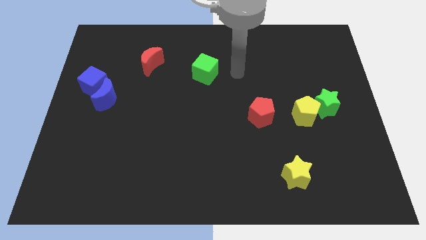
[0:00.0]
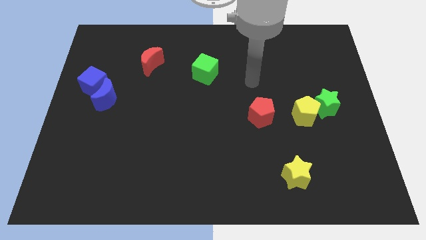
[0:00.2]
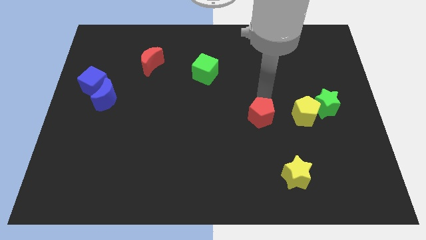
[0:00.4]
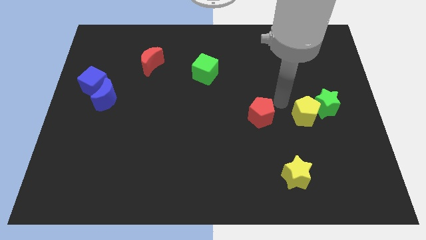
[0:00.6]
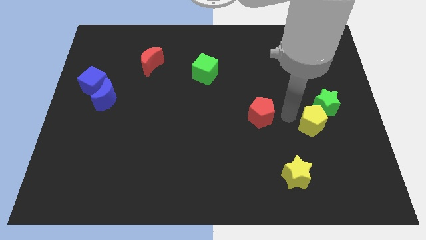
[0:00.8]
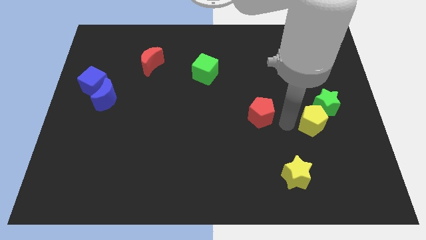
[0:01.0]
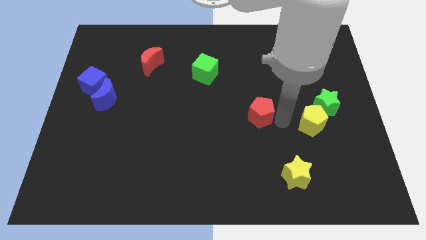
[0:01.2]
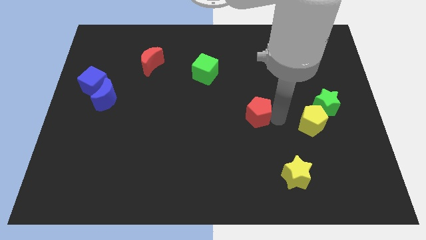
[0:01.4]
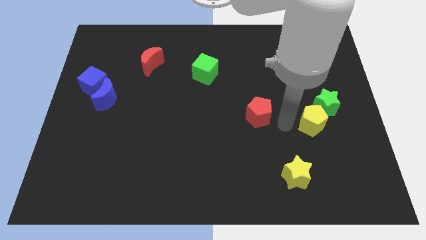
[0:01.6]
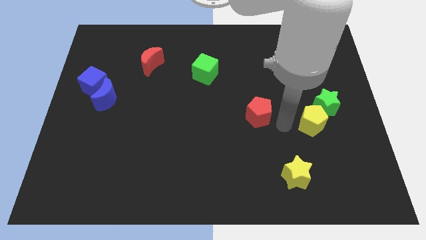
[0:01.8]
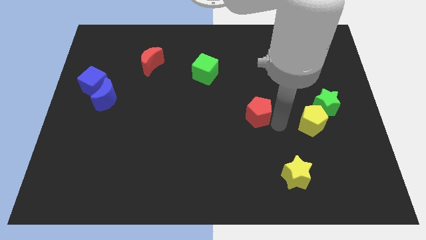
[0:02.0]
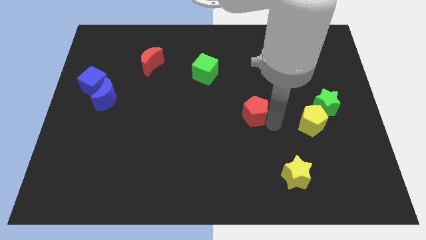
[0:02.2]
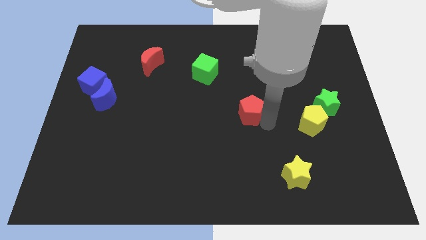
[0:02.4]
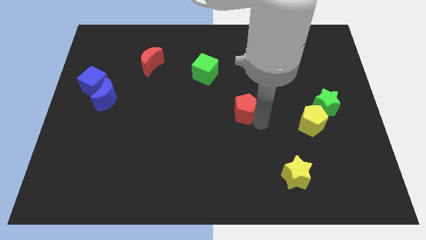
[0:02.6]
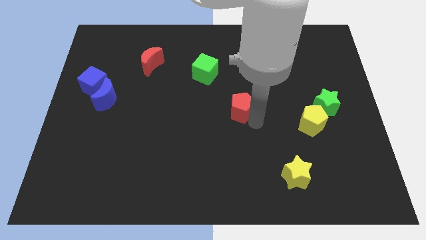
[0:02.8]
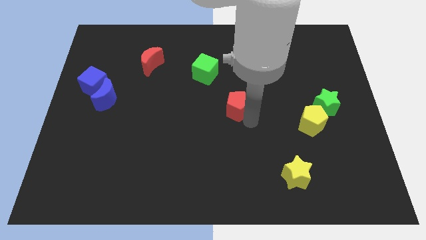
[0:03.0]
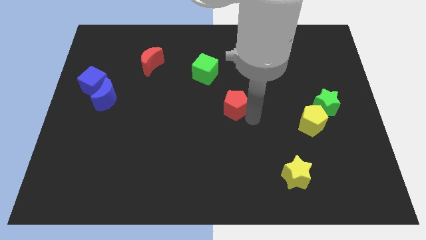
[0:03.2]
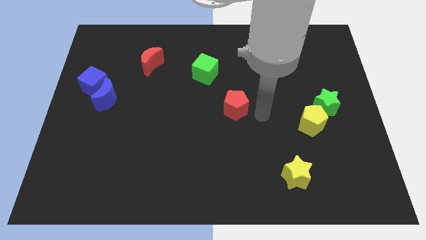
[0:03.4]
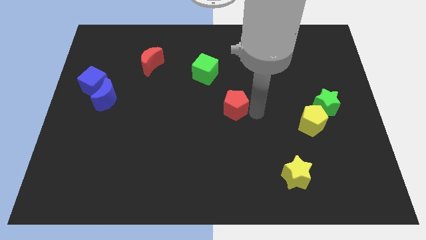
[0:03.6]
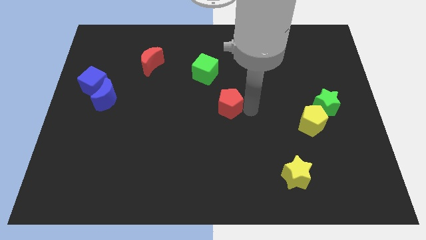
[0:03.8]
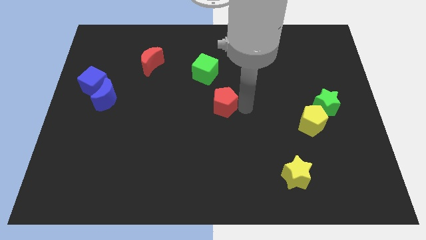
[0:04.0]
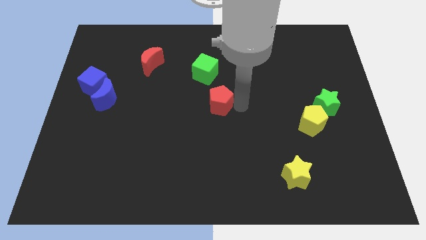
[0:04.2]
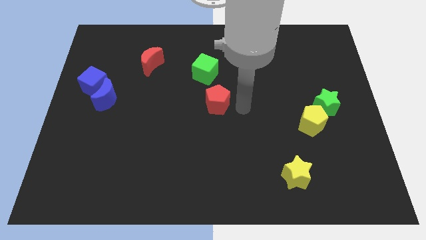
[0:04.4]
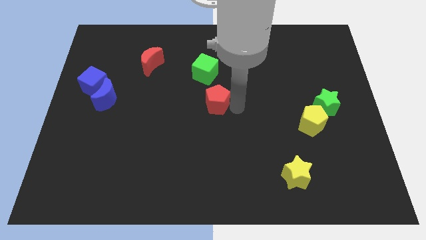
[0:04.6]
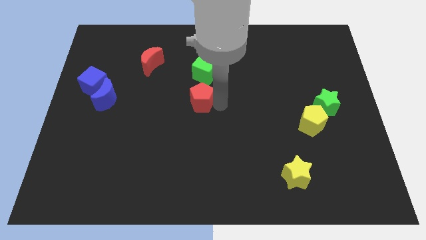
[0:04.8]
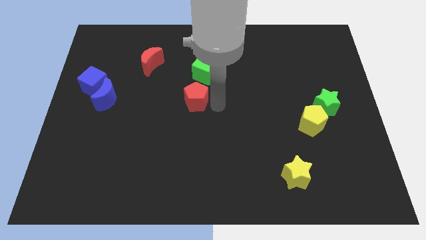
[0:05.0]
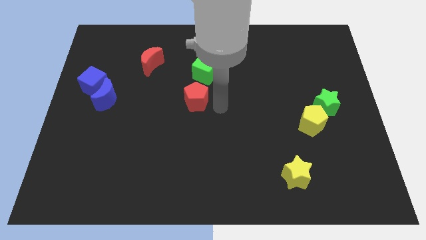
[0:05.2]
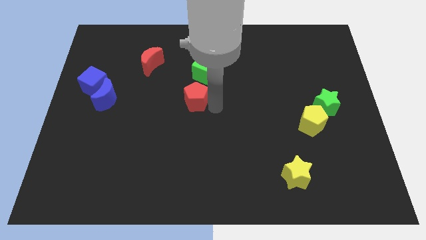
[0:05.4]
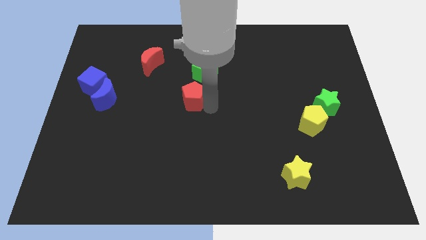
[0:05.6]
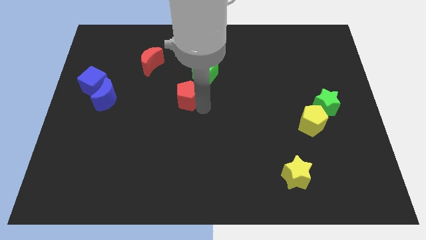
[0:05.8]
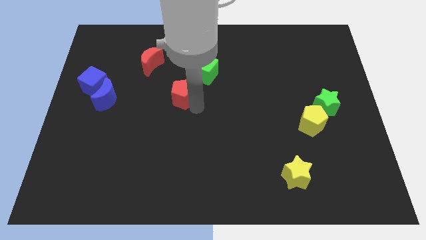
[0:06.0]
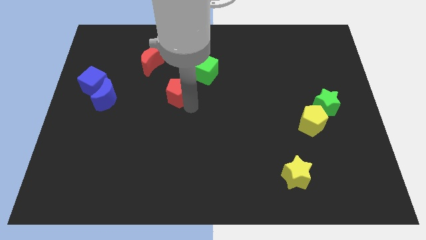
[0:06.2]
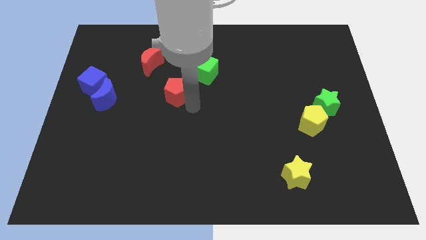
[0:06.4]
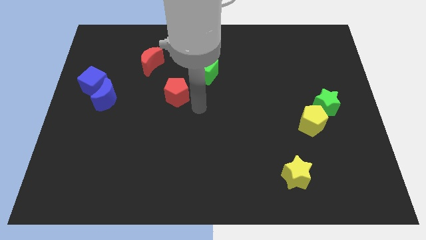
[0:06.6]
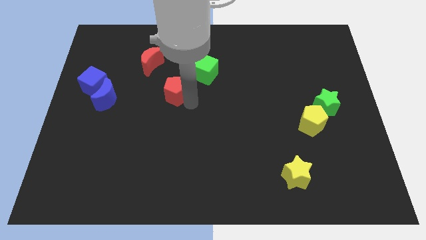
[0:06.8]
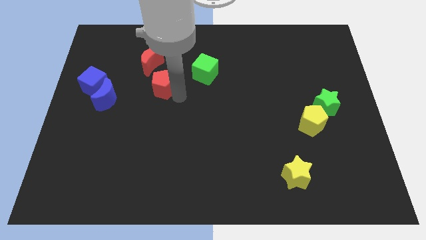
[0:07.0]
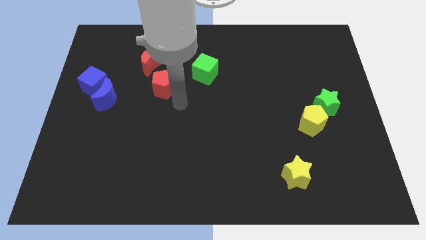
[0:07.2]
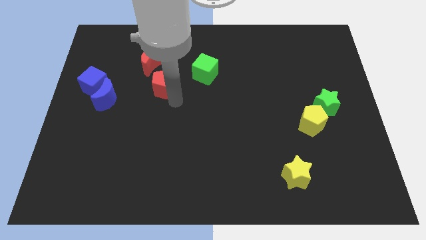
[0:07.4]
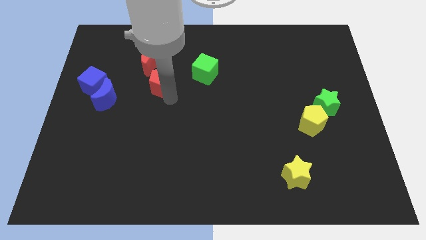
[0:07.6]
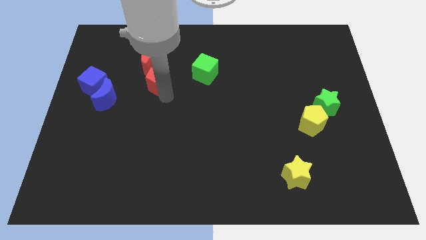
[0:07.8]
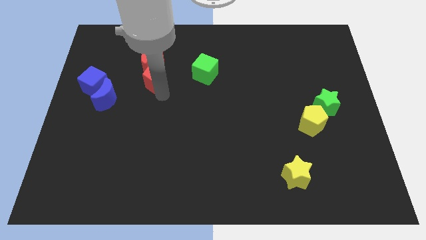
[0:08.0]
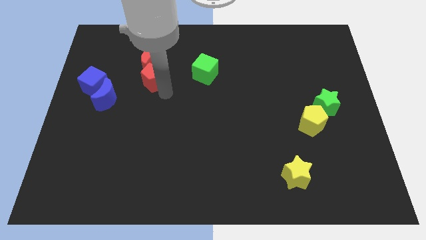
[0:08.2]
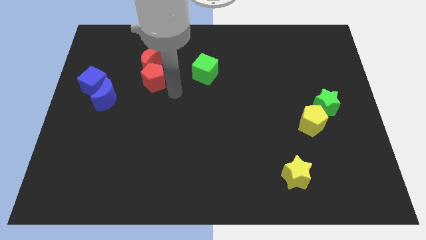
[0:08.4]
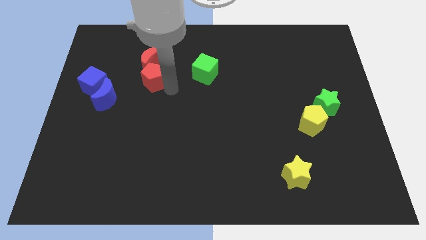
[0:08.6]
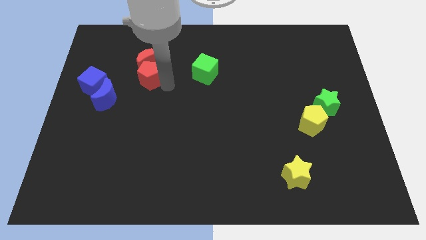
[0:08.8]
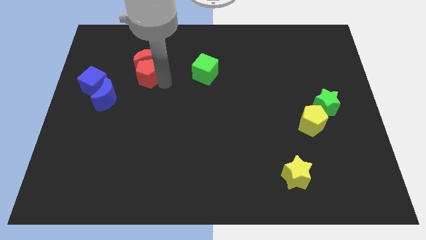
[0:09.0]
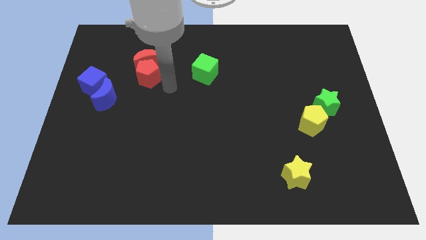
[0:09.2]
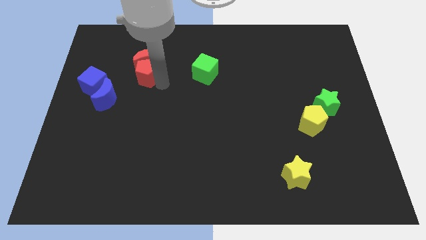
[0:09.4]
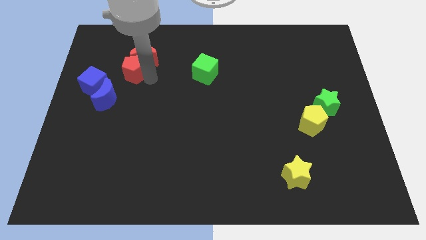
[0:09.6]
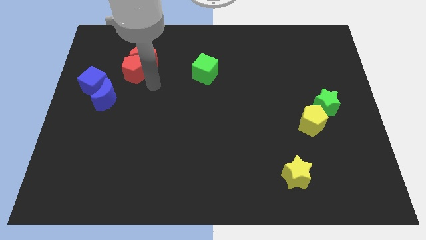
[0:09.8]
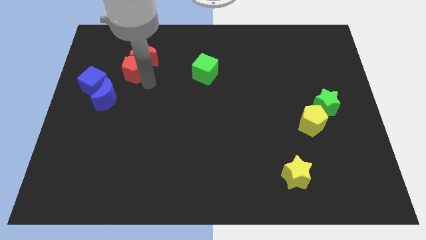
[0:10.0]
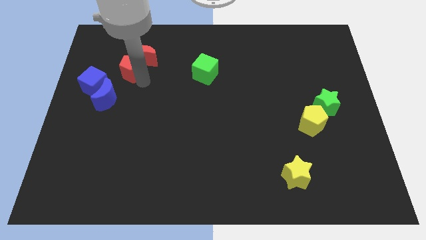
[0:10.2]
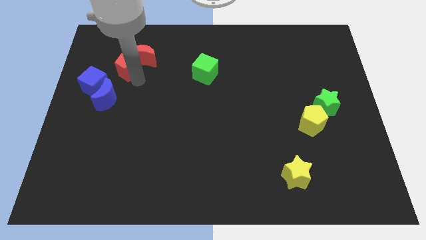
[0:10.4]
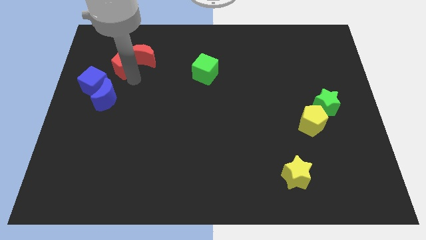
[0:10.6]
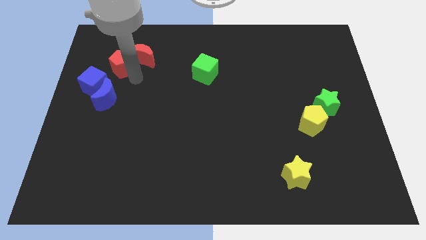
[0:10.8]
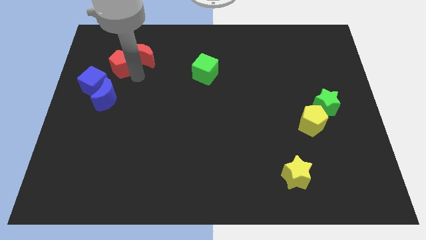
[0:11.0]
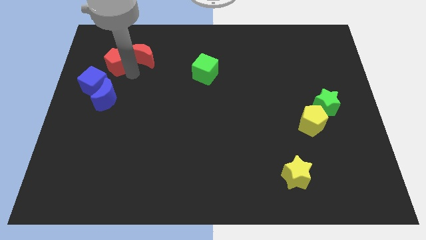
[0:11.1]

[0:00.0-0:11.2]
put the red pentagon above the blue cube

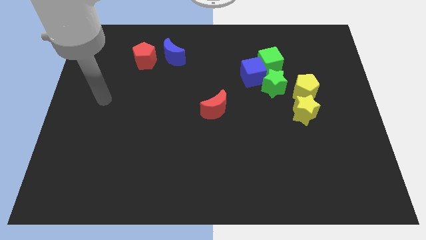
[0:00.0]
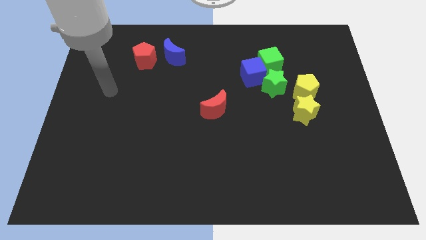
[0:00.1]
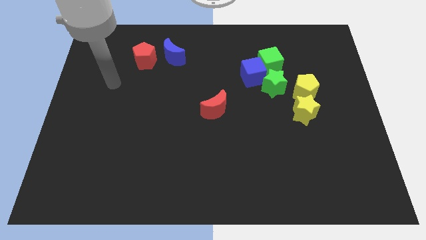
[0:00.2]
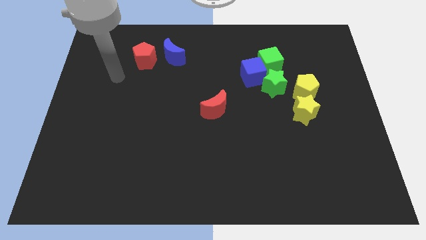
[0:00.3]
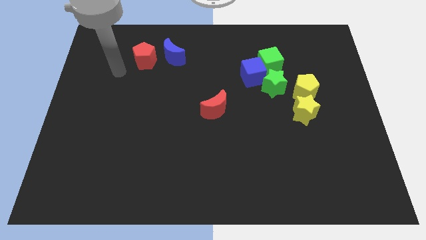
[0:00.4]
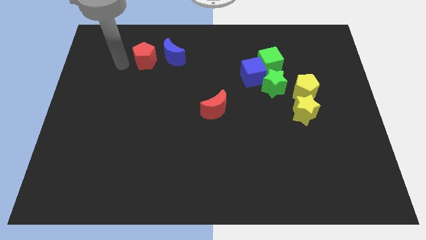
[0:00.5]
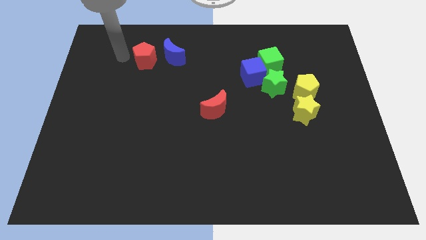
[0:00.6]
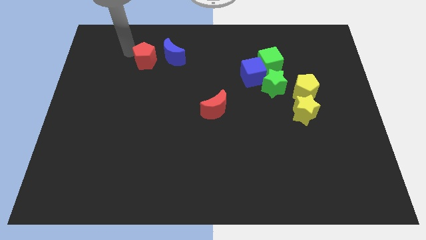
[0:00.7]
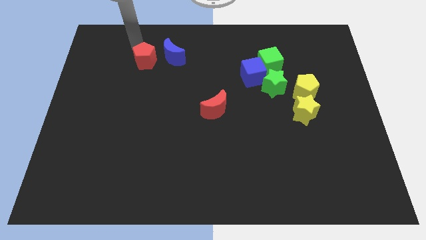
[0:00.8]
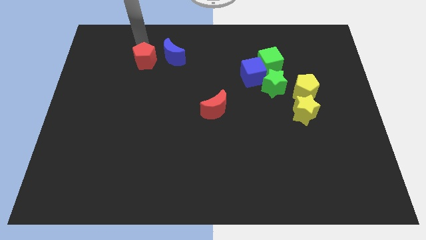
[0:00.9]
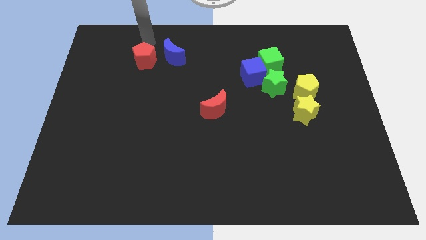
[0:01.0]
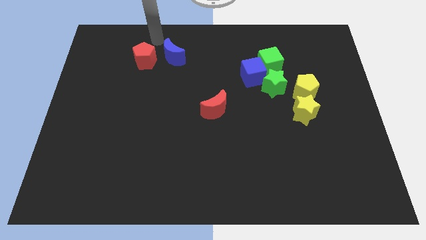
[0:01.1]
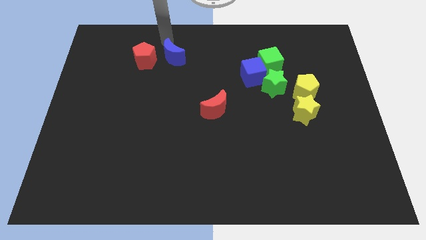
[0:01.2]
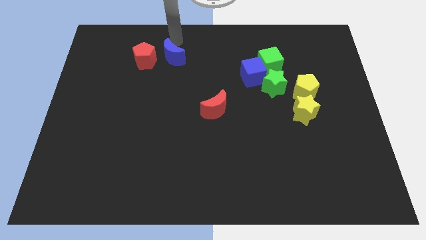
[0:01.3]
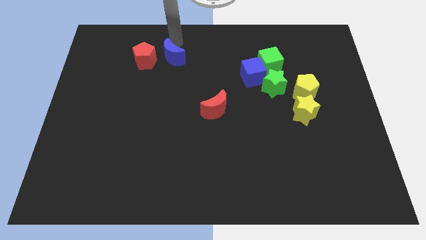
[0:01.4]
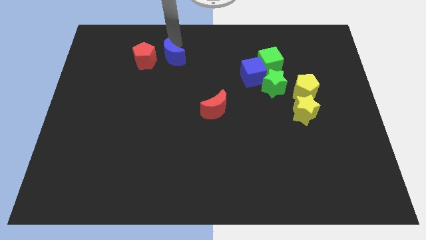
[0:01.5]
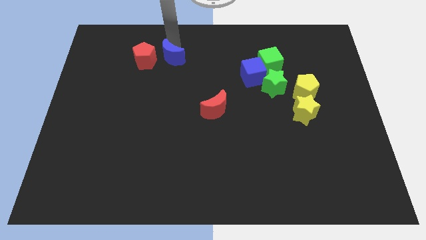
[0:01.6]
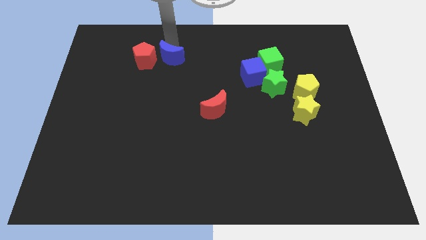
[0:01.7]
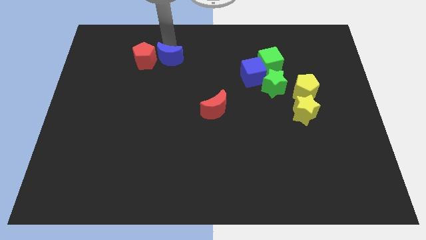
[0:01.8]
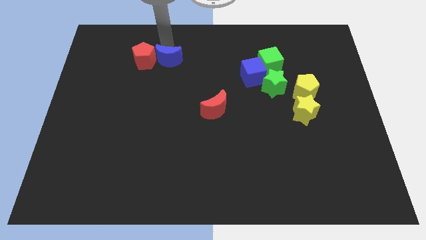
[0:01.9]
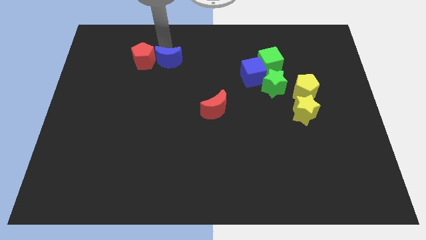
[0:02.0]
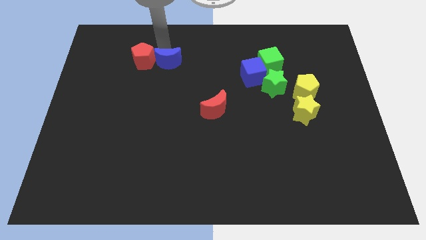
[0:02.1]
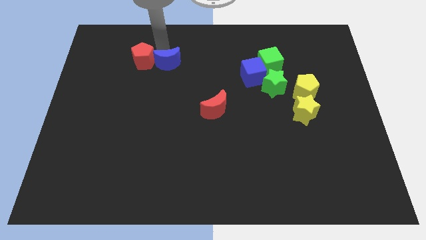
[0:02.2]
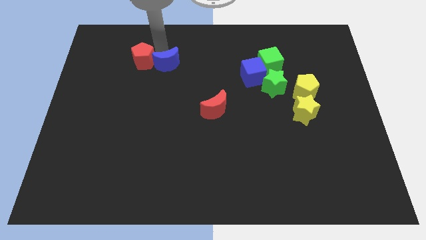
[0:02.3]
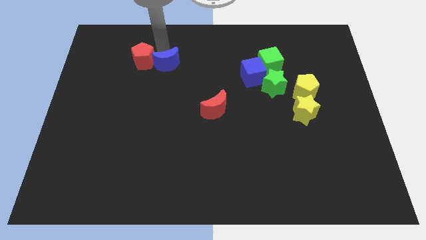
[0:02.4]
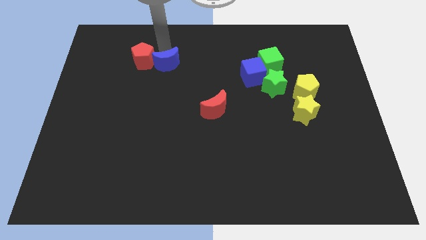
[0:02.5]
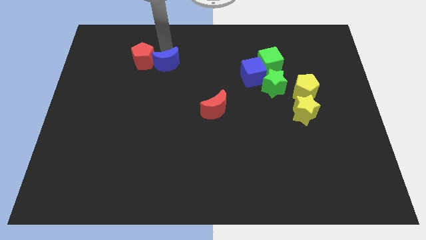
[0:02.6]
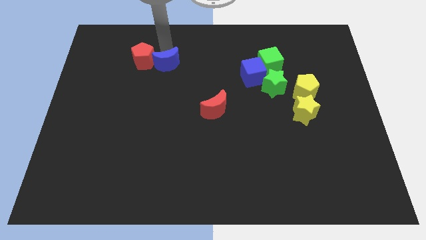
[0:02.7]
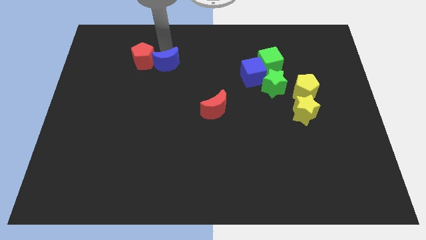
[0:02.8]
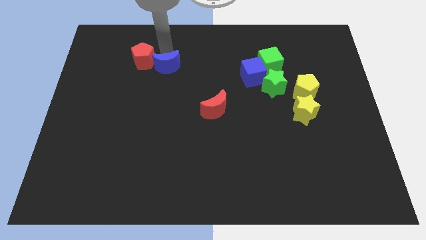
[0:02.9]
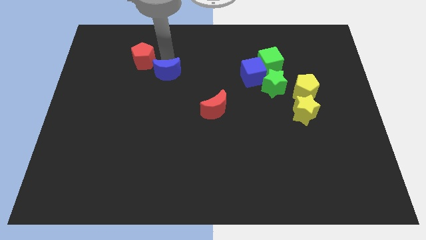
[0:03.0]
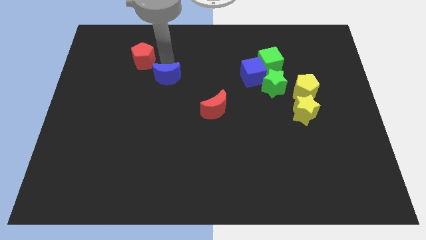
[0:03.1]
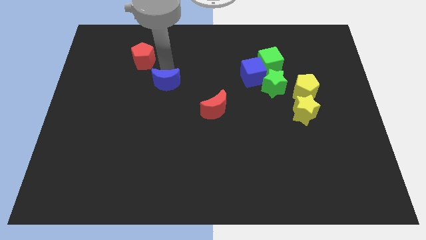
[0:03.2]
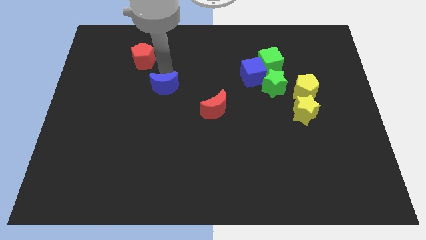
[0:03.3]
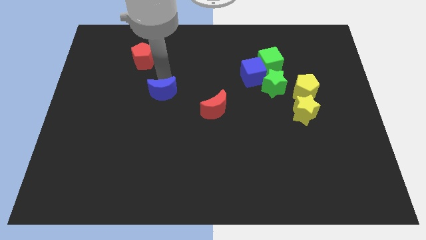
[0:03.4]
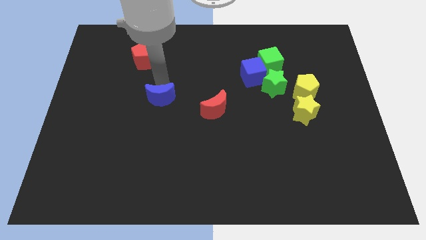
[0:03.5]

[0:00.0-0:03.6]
push the blue moon to the left side of the red moon
